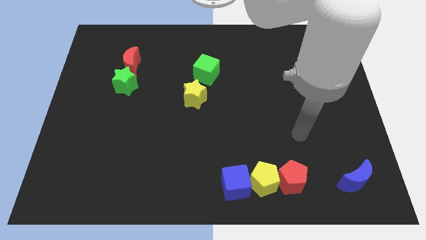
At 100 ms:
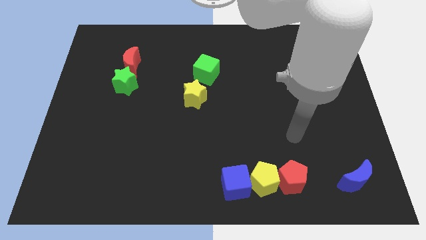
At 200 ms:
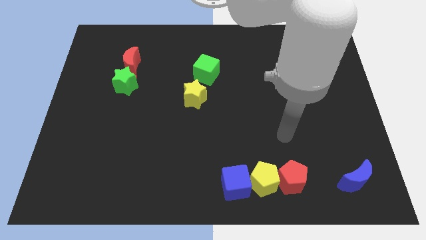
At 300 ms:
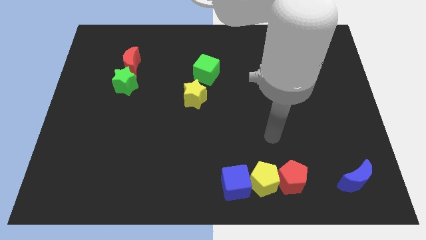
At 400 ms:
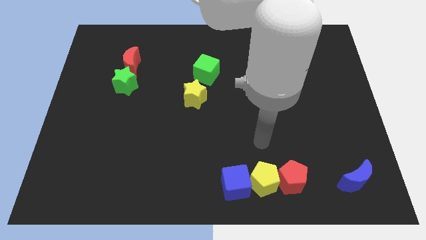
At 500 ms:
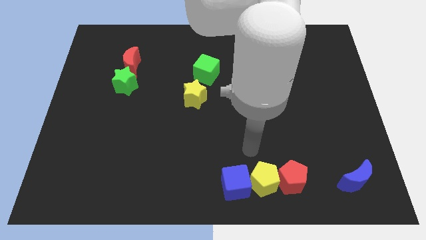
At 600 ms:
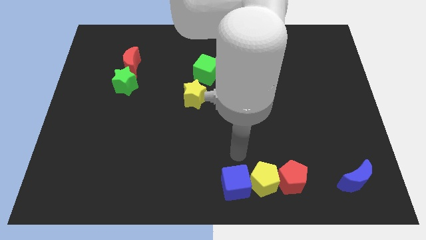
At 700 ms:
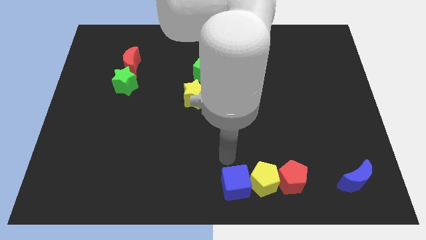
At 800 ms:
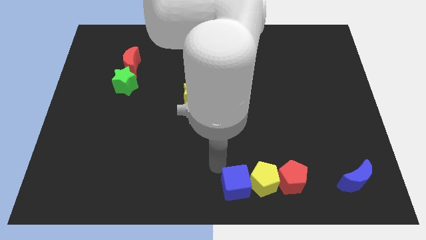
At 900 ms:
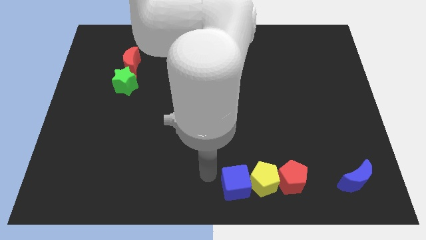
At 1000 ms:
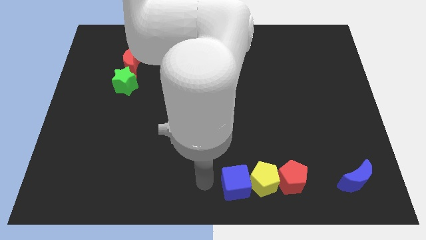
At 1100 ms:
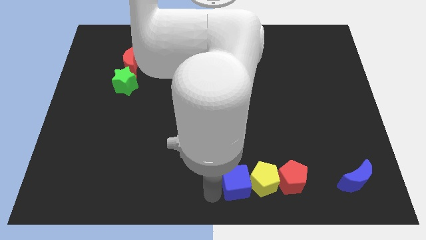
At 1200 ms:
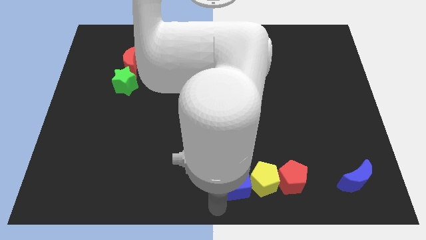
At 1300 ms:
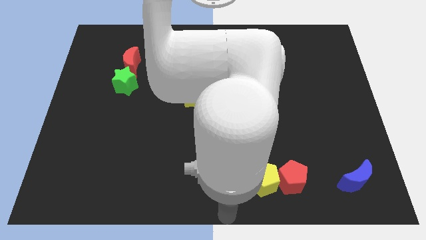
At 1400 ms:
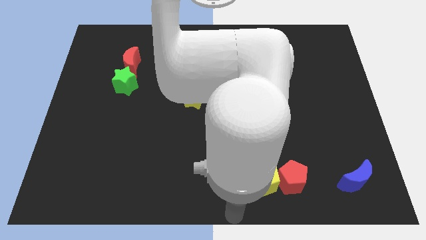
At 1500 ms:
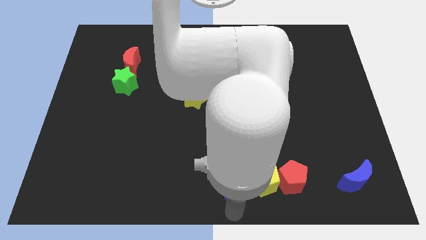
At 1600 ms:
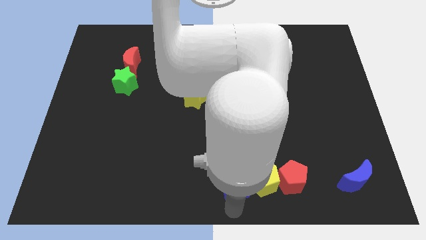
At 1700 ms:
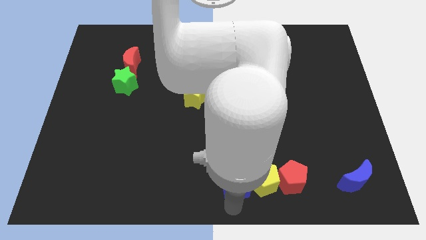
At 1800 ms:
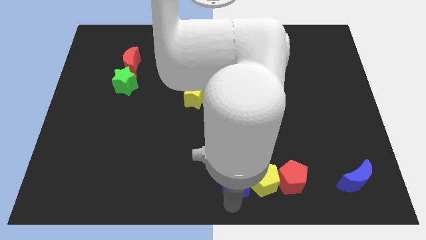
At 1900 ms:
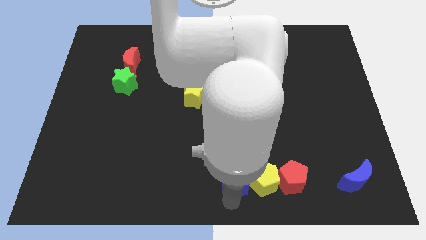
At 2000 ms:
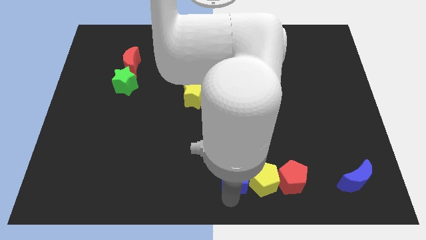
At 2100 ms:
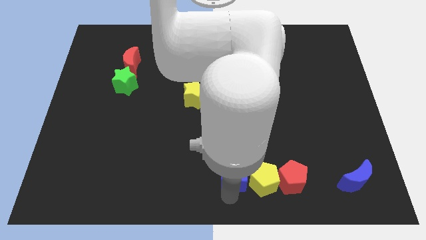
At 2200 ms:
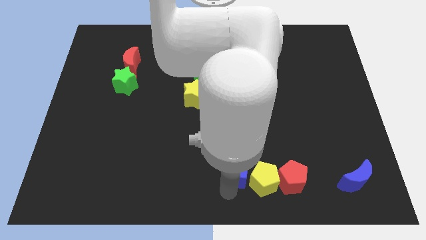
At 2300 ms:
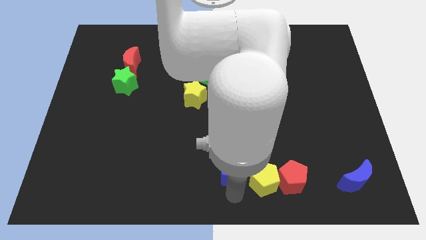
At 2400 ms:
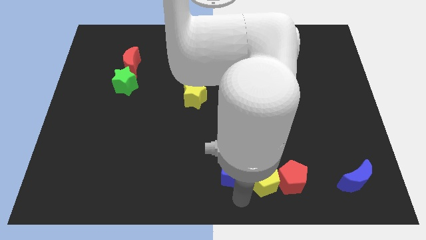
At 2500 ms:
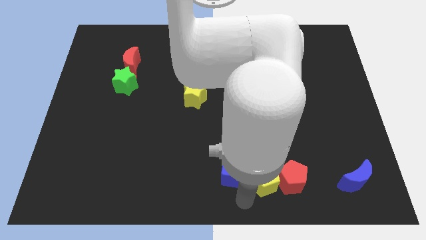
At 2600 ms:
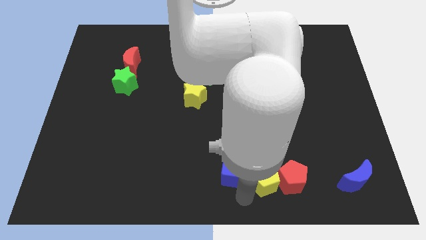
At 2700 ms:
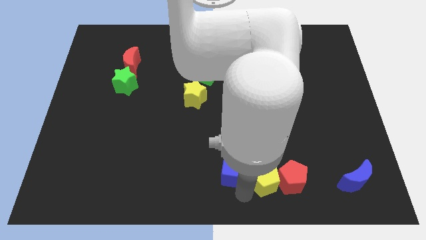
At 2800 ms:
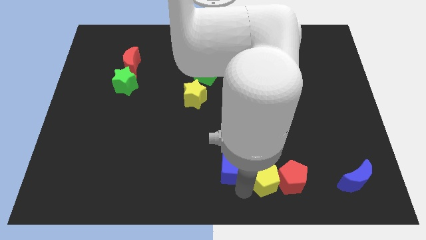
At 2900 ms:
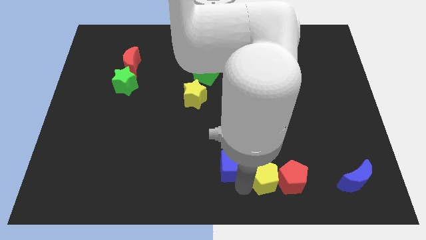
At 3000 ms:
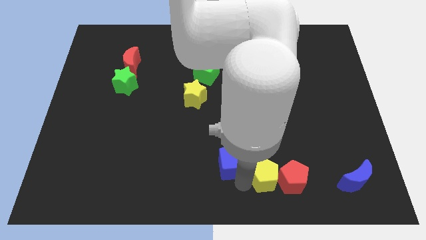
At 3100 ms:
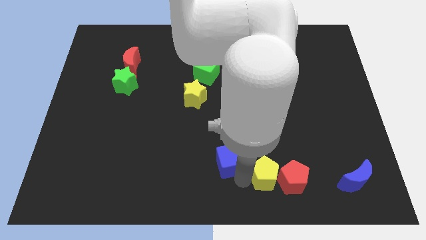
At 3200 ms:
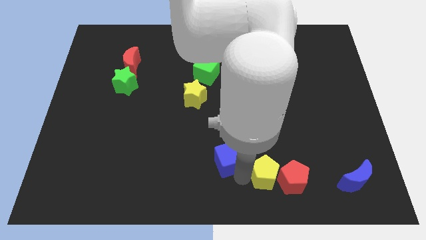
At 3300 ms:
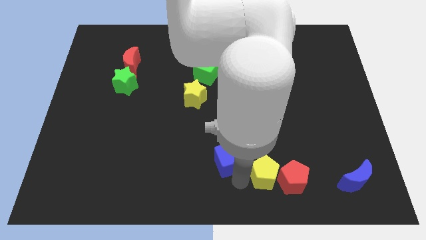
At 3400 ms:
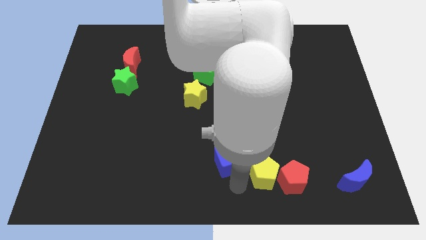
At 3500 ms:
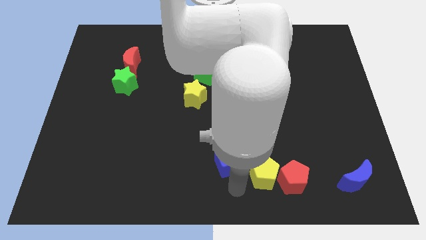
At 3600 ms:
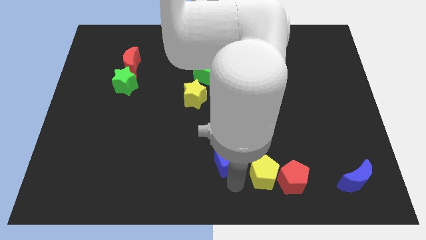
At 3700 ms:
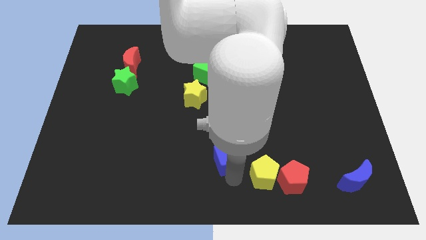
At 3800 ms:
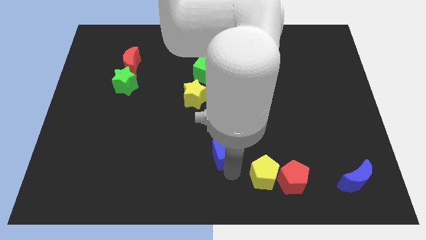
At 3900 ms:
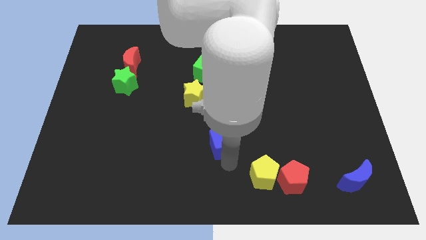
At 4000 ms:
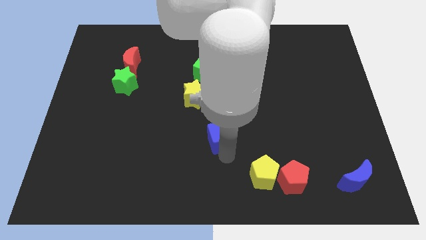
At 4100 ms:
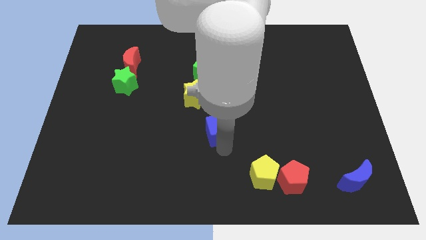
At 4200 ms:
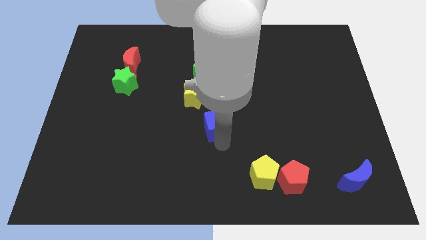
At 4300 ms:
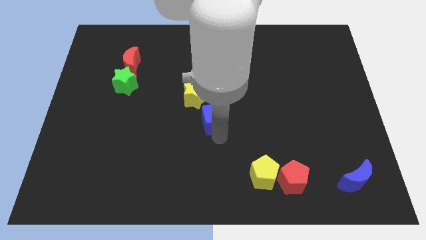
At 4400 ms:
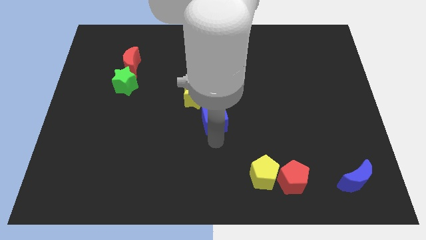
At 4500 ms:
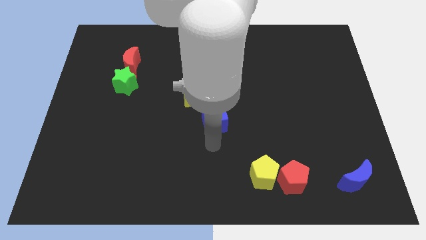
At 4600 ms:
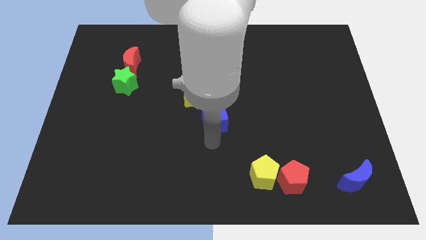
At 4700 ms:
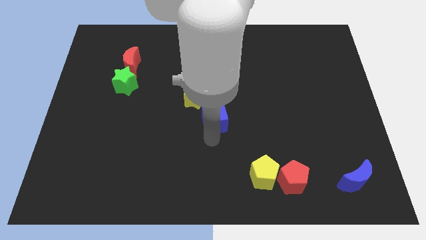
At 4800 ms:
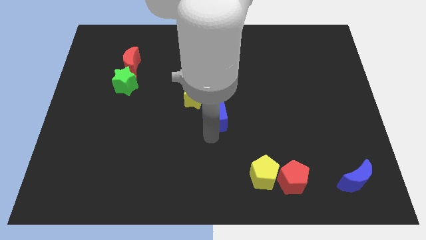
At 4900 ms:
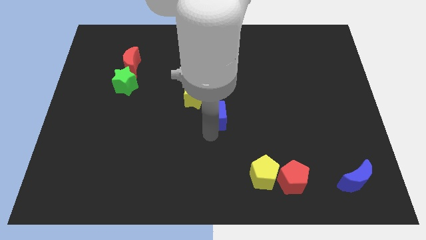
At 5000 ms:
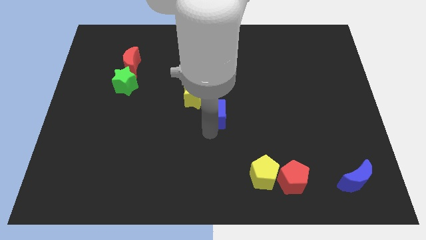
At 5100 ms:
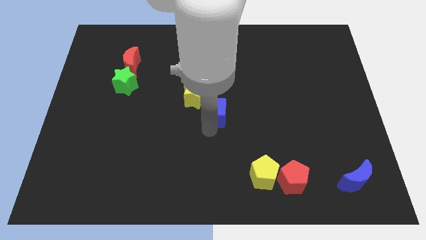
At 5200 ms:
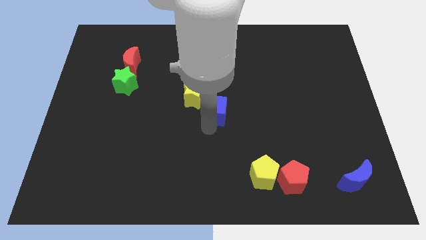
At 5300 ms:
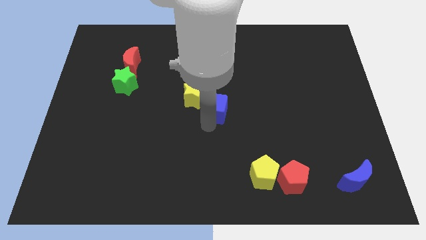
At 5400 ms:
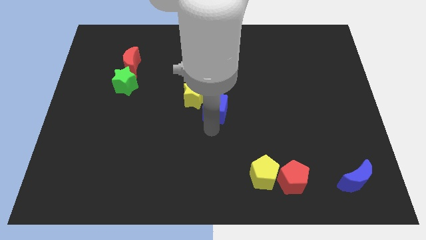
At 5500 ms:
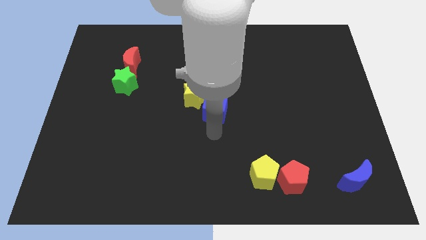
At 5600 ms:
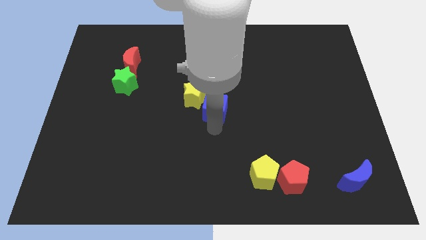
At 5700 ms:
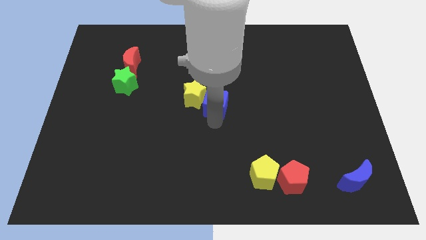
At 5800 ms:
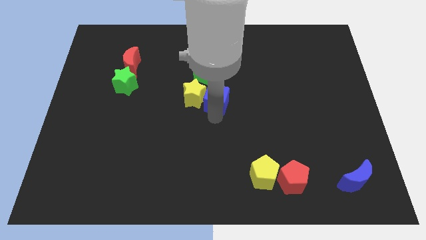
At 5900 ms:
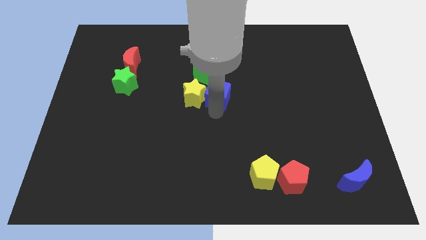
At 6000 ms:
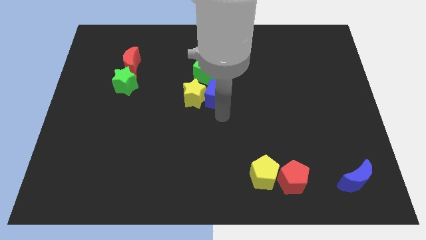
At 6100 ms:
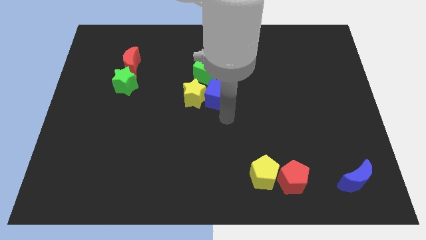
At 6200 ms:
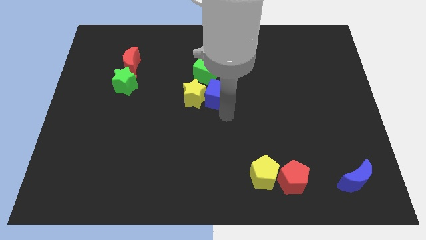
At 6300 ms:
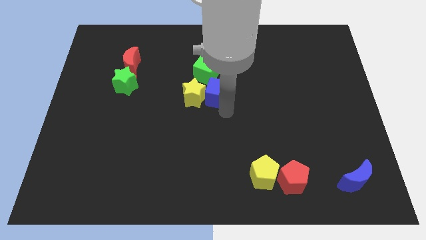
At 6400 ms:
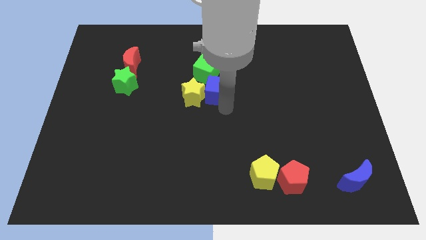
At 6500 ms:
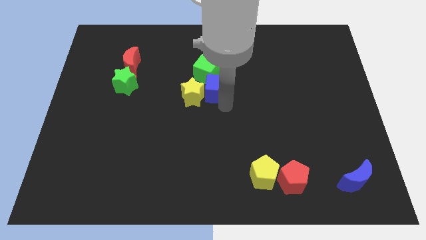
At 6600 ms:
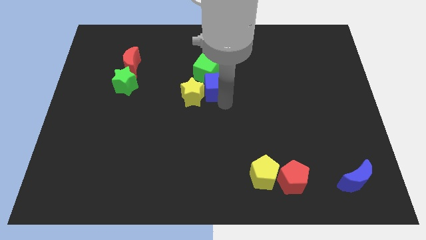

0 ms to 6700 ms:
put the blue cube towards the green cube

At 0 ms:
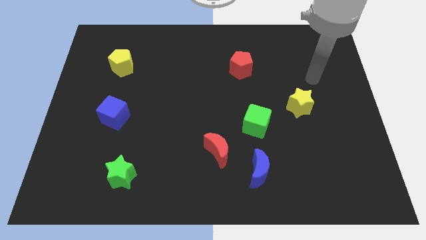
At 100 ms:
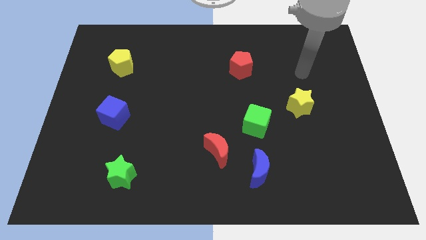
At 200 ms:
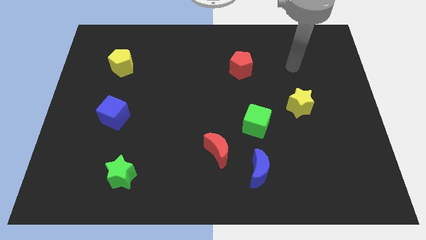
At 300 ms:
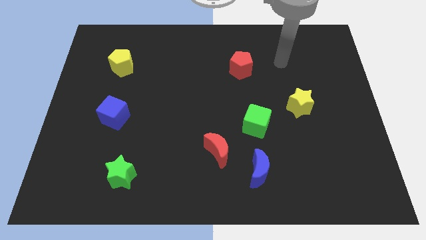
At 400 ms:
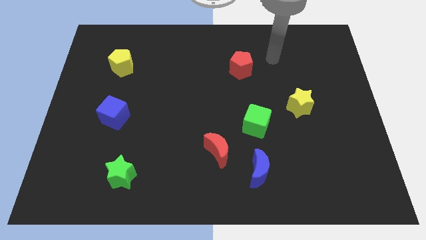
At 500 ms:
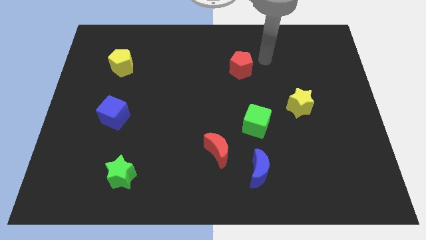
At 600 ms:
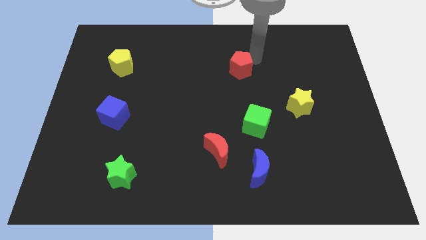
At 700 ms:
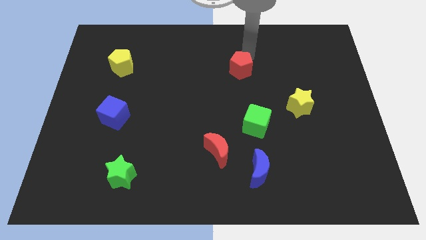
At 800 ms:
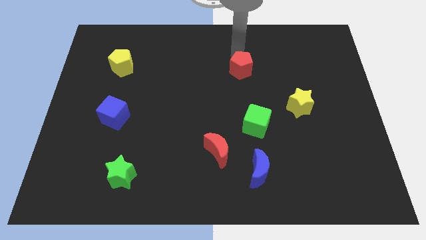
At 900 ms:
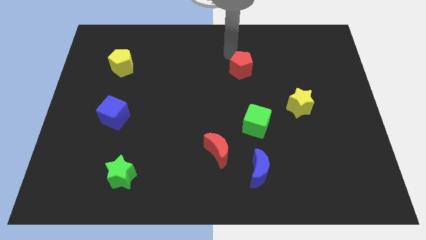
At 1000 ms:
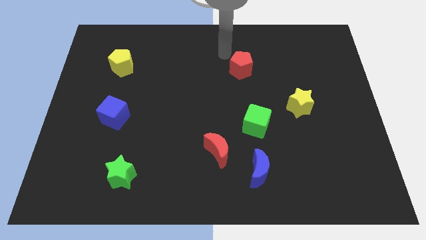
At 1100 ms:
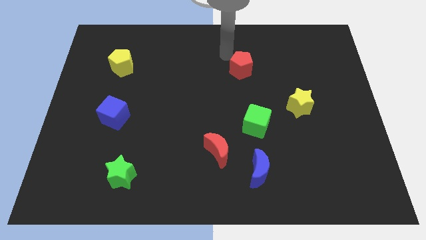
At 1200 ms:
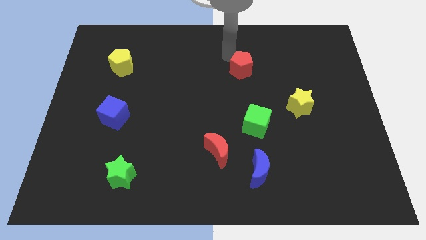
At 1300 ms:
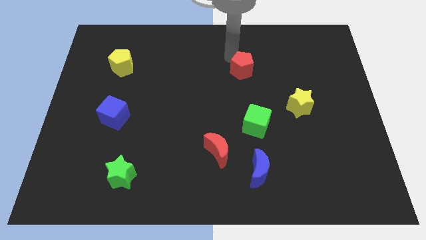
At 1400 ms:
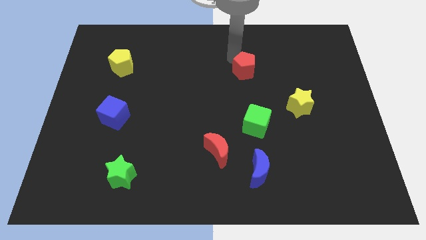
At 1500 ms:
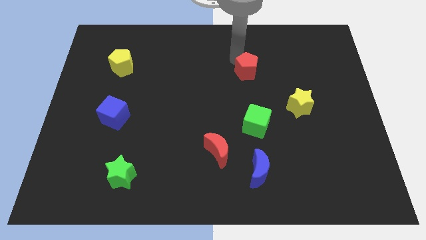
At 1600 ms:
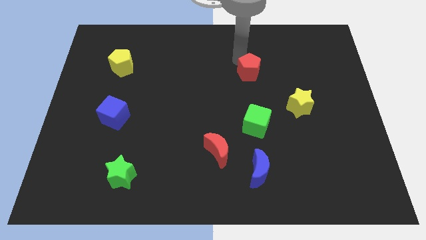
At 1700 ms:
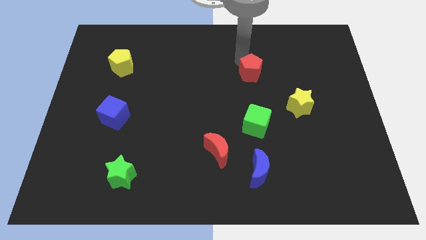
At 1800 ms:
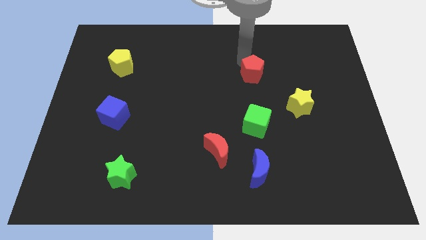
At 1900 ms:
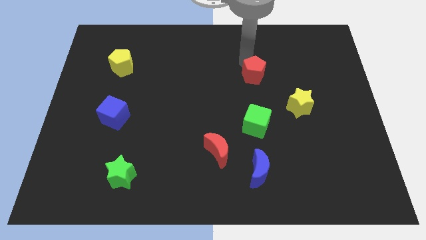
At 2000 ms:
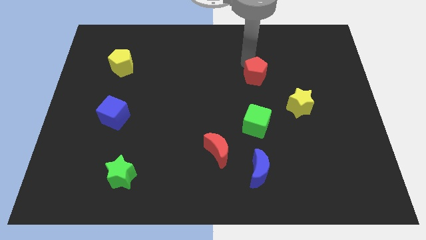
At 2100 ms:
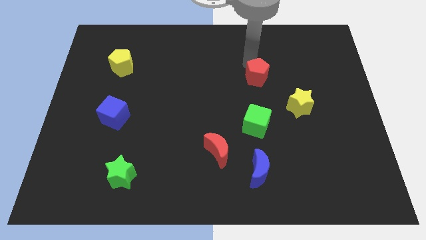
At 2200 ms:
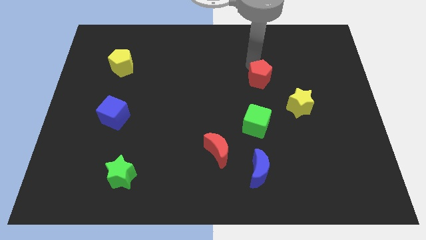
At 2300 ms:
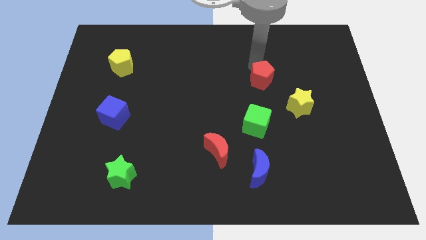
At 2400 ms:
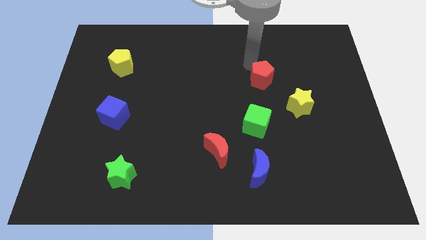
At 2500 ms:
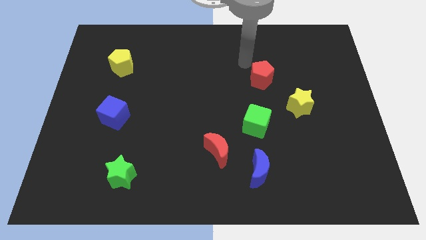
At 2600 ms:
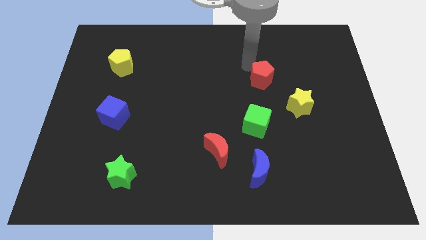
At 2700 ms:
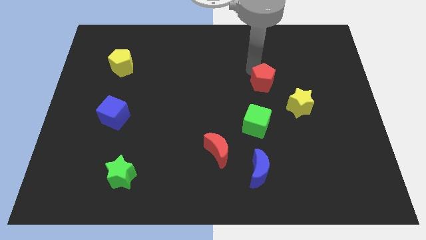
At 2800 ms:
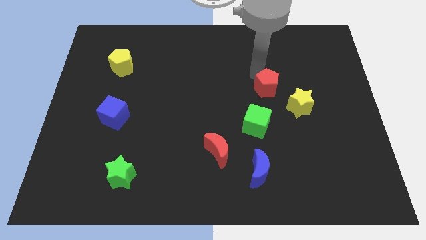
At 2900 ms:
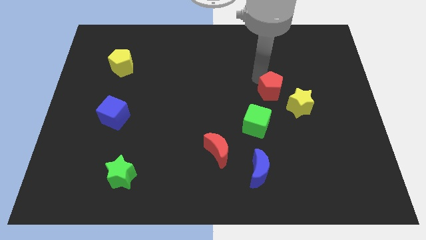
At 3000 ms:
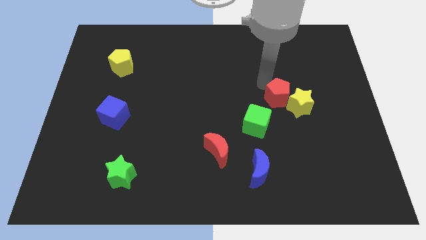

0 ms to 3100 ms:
move the red pentagon next to the yellow star
